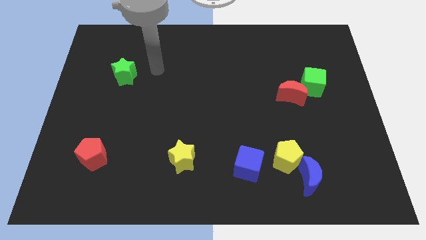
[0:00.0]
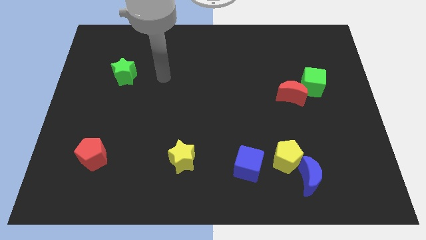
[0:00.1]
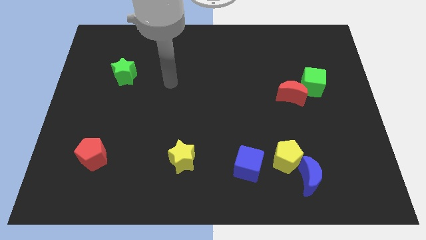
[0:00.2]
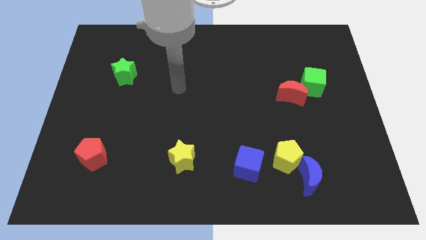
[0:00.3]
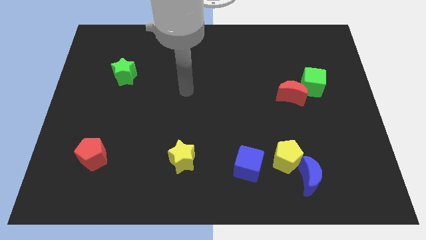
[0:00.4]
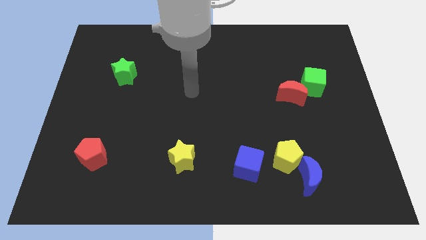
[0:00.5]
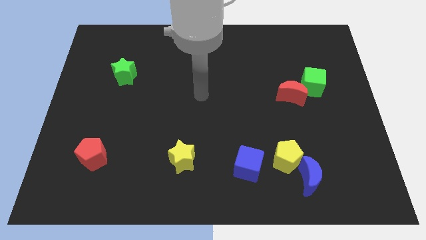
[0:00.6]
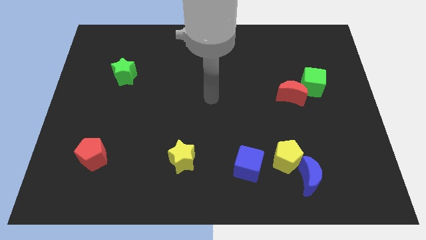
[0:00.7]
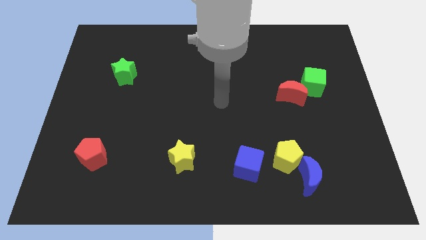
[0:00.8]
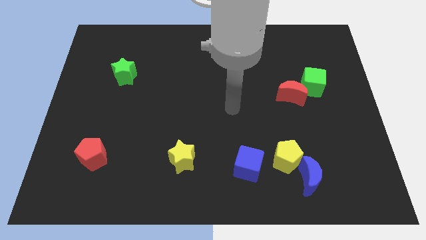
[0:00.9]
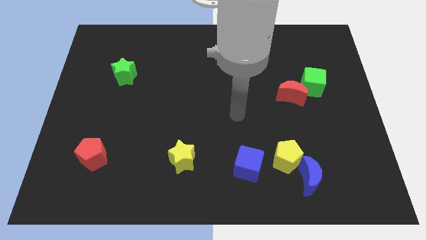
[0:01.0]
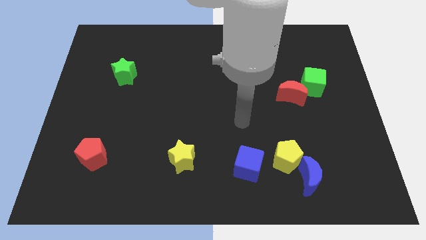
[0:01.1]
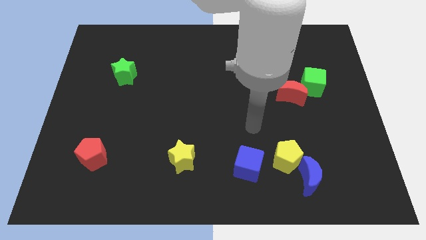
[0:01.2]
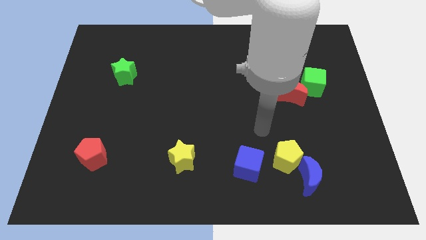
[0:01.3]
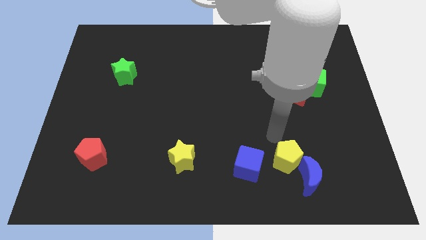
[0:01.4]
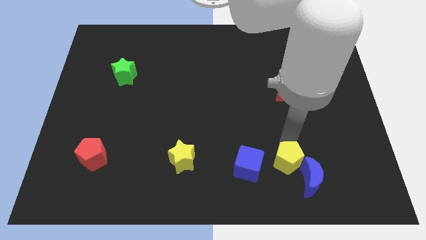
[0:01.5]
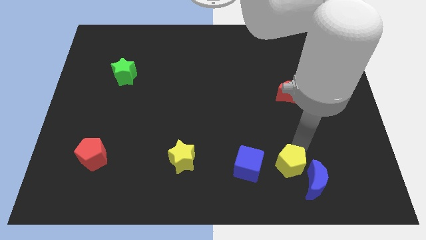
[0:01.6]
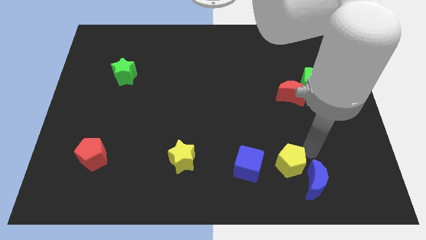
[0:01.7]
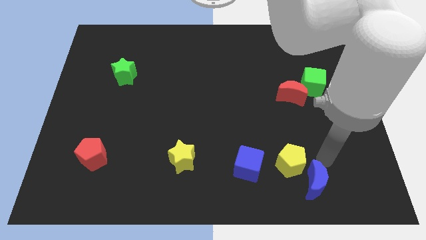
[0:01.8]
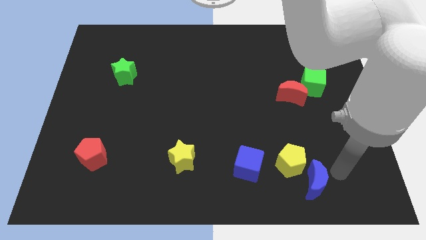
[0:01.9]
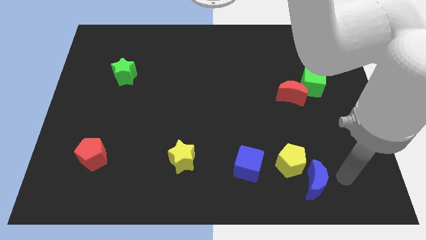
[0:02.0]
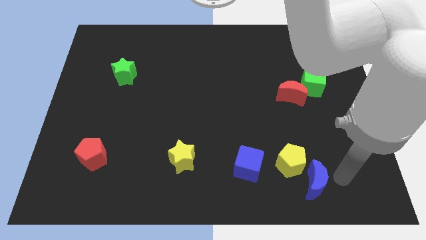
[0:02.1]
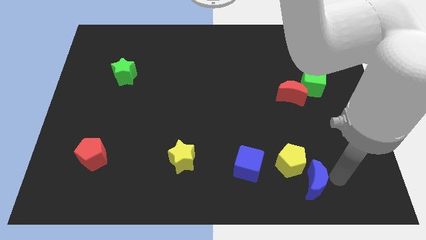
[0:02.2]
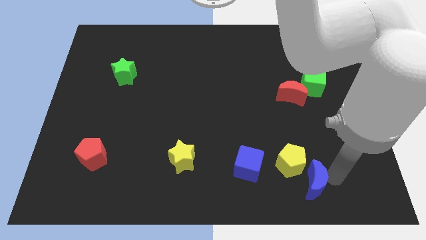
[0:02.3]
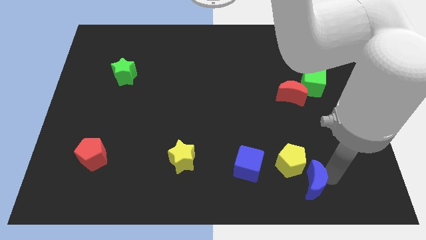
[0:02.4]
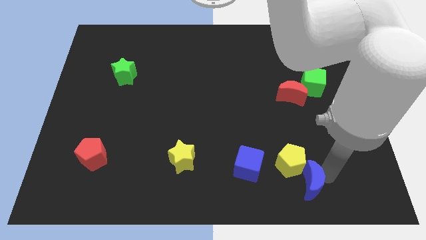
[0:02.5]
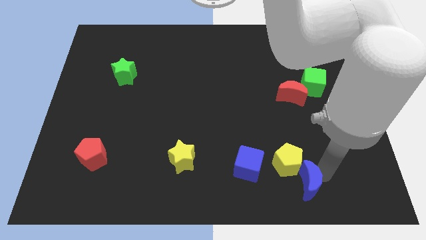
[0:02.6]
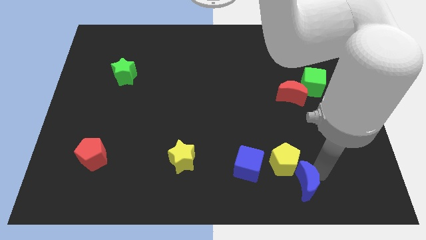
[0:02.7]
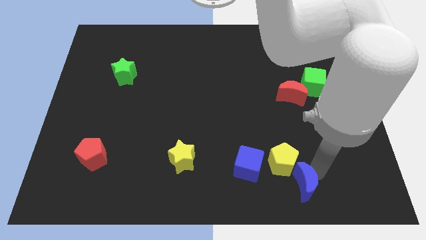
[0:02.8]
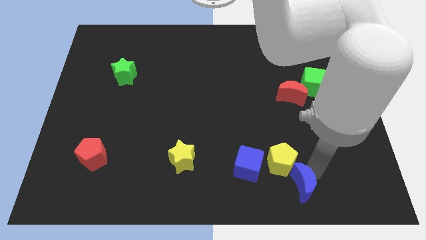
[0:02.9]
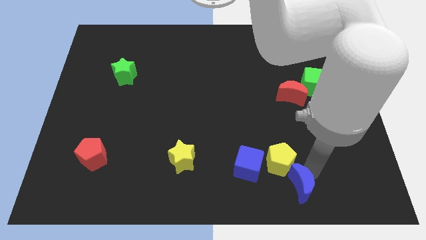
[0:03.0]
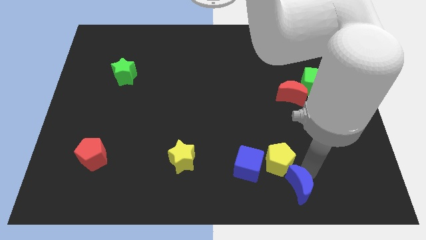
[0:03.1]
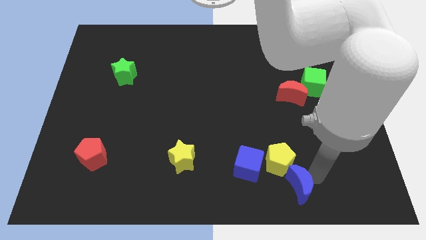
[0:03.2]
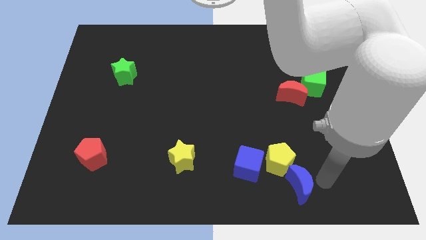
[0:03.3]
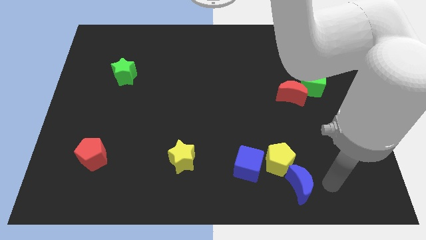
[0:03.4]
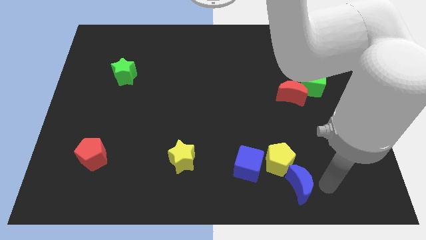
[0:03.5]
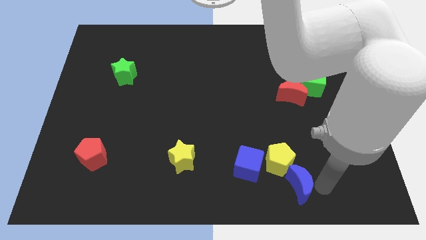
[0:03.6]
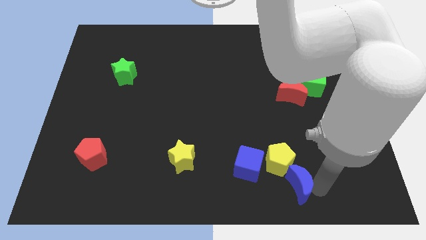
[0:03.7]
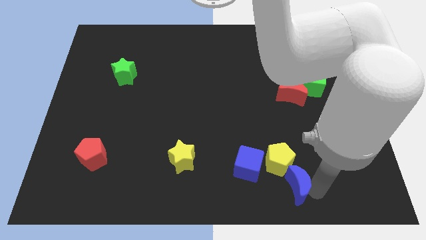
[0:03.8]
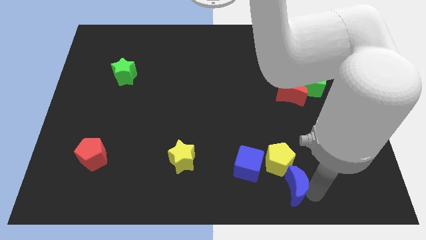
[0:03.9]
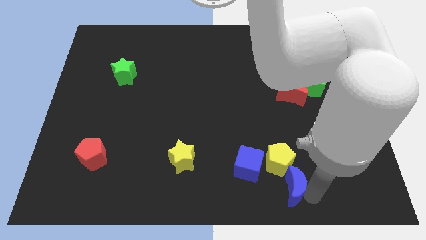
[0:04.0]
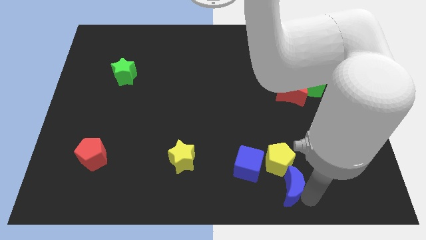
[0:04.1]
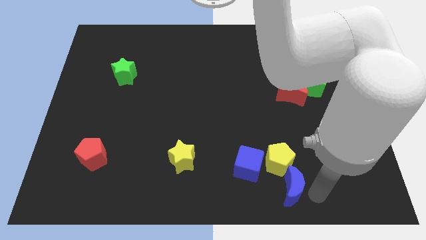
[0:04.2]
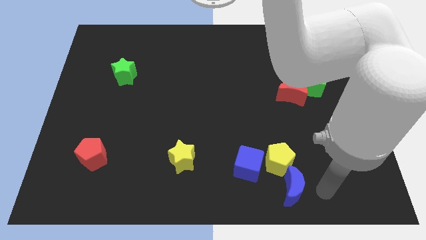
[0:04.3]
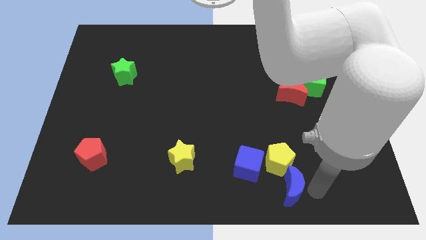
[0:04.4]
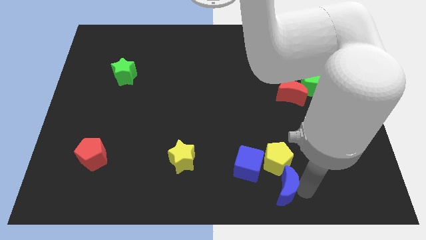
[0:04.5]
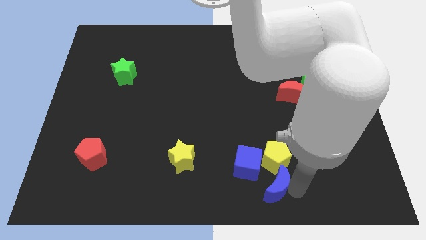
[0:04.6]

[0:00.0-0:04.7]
push the blue moon left a bit

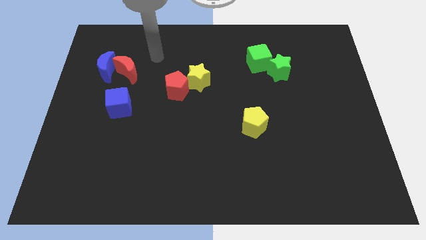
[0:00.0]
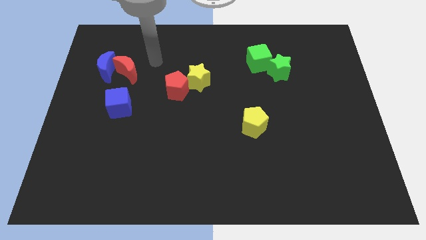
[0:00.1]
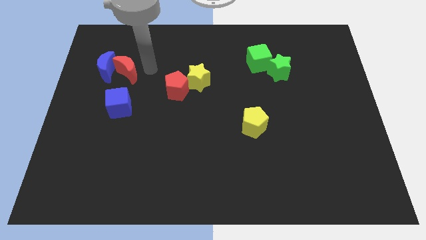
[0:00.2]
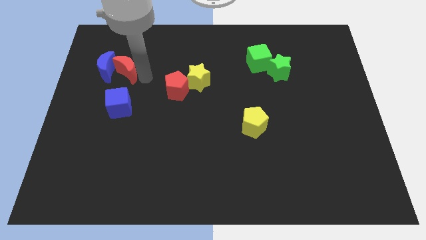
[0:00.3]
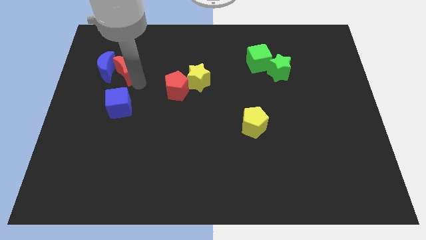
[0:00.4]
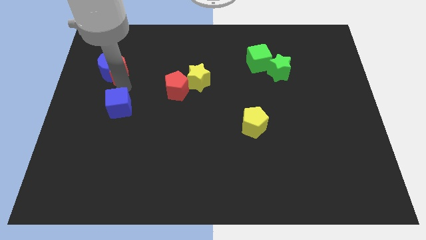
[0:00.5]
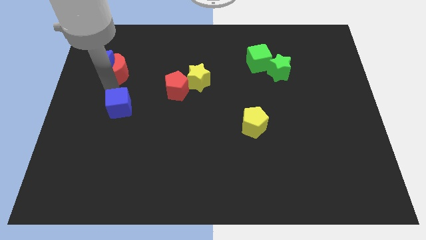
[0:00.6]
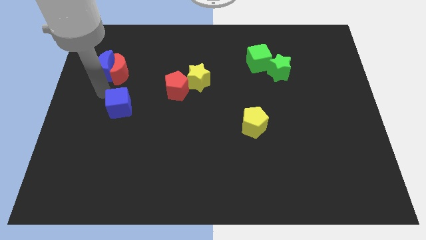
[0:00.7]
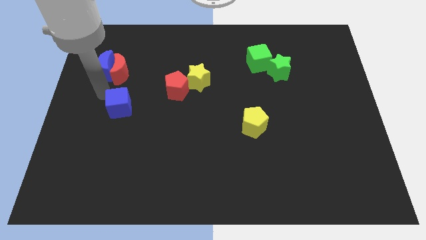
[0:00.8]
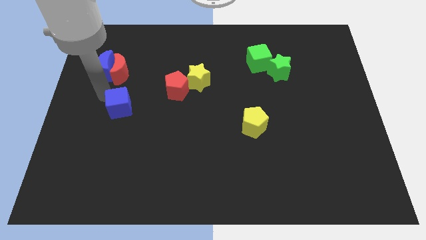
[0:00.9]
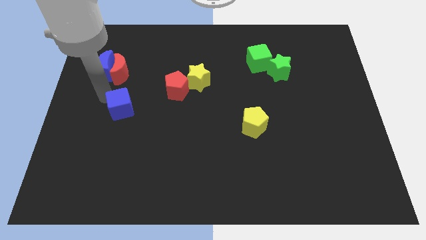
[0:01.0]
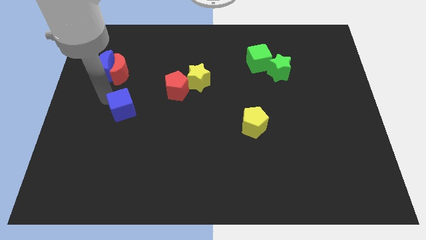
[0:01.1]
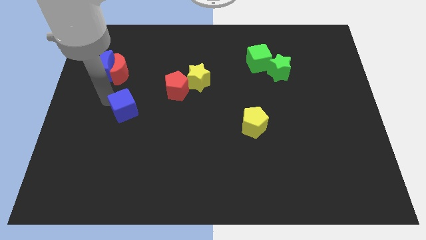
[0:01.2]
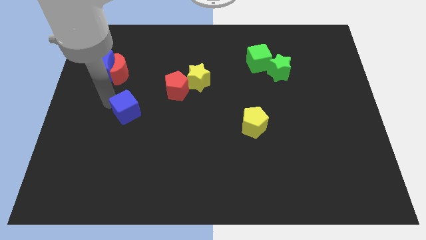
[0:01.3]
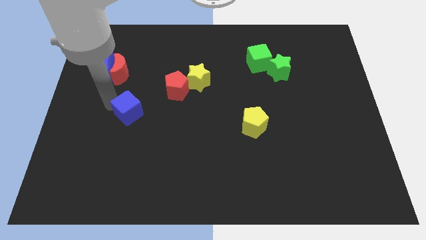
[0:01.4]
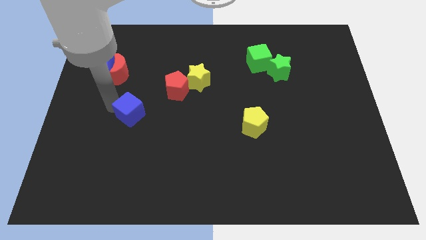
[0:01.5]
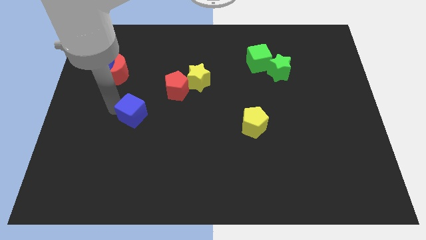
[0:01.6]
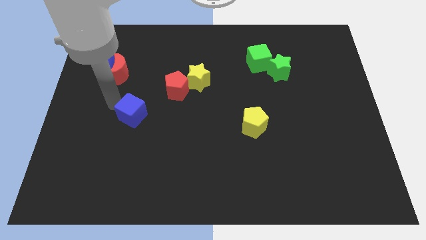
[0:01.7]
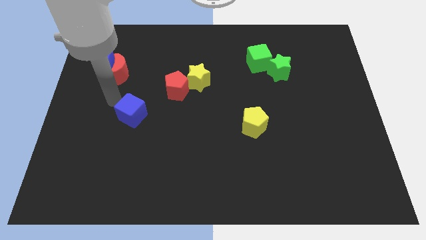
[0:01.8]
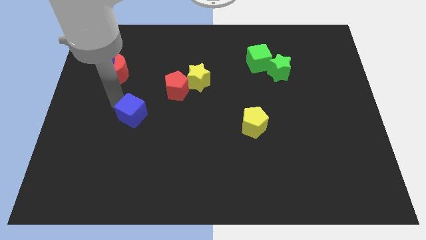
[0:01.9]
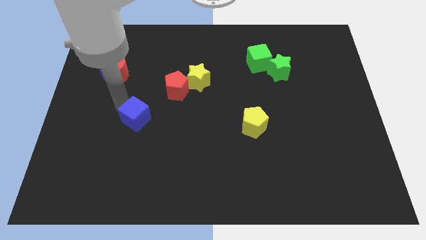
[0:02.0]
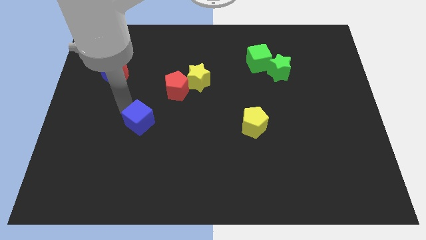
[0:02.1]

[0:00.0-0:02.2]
slightly move the blue cube down and then to the right

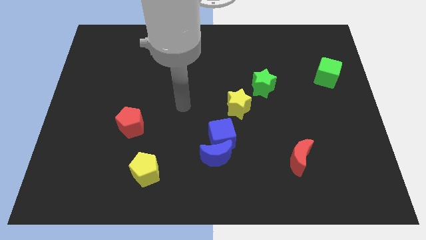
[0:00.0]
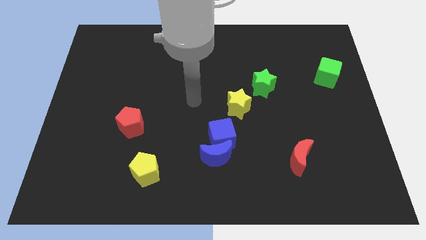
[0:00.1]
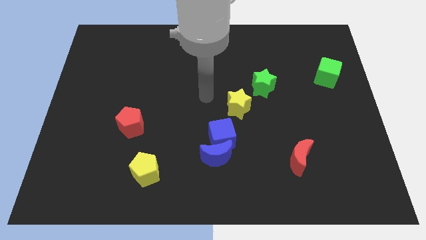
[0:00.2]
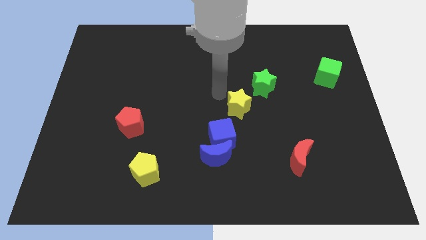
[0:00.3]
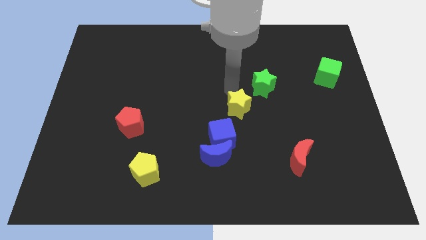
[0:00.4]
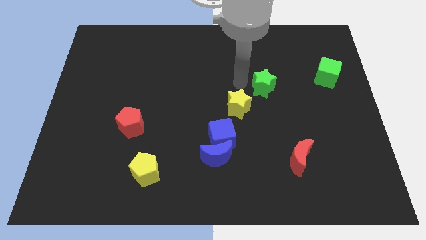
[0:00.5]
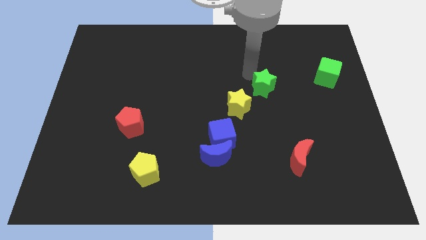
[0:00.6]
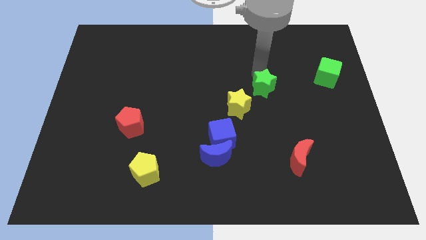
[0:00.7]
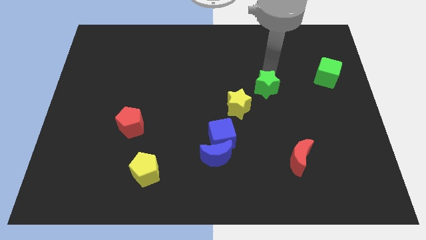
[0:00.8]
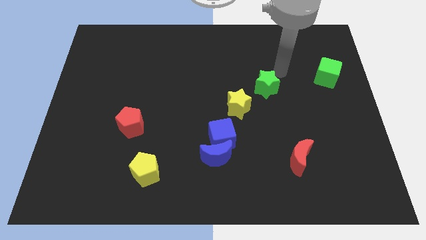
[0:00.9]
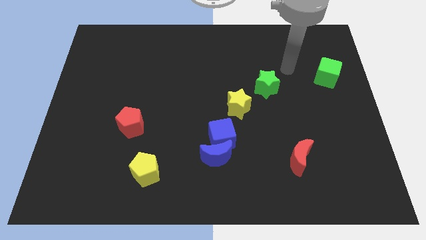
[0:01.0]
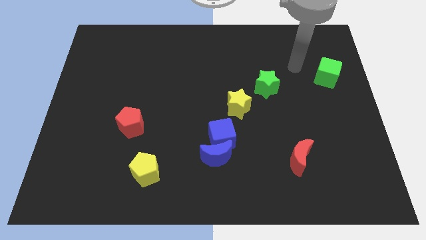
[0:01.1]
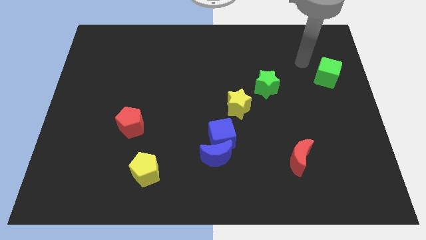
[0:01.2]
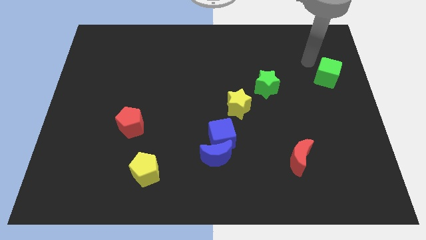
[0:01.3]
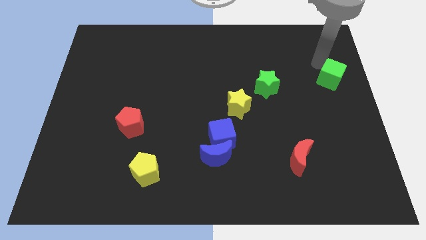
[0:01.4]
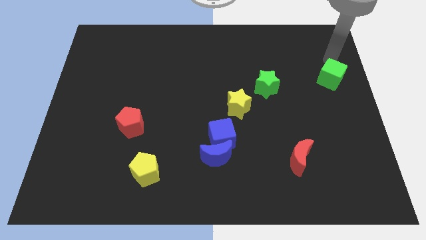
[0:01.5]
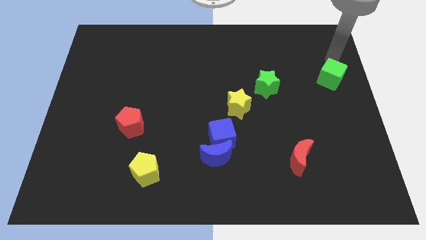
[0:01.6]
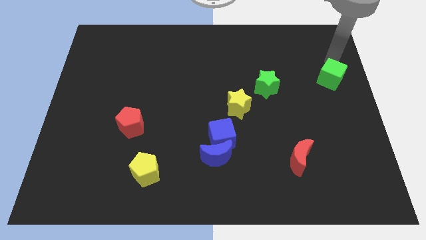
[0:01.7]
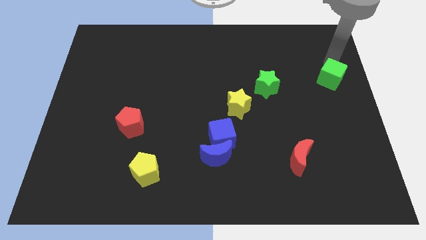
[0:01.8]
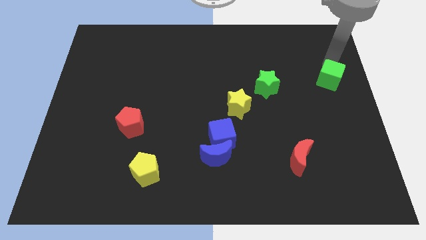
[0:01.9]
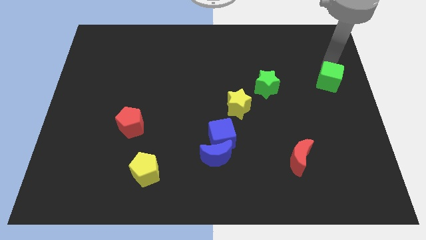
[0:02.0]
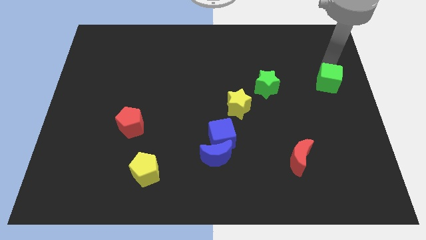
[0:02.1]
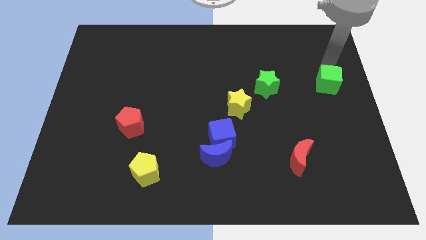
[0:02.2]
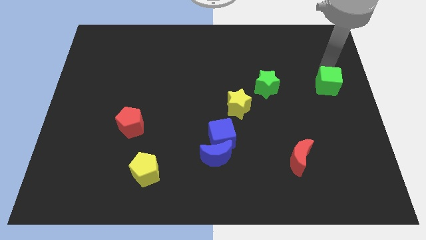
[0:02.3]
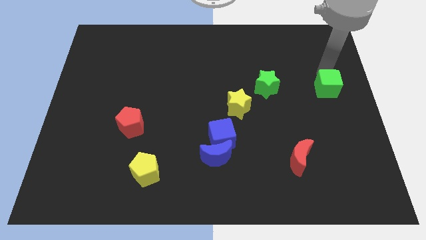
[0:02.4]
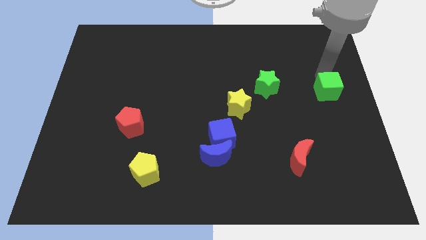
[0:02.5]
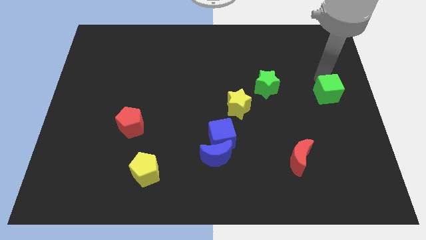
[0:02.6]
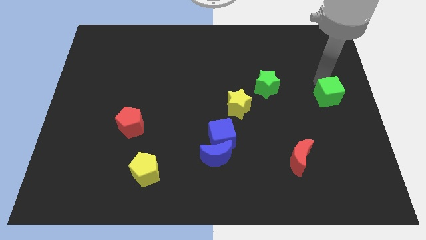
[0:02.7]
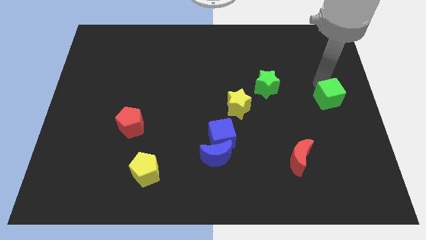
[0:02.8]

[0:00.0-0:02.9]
move the green cube slightly down
